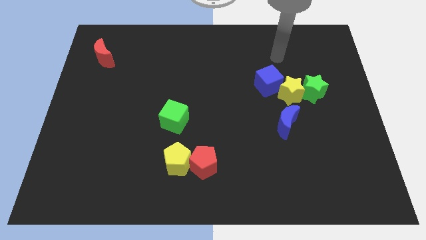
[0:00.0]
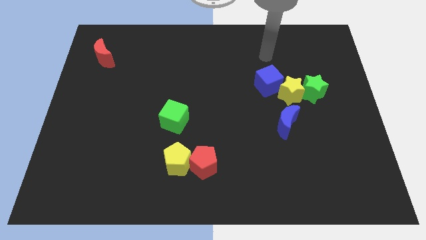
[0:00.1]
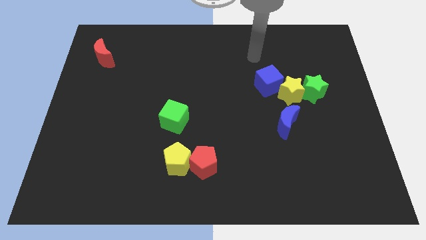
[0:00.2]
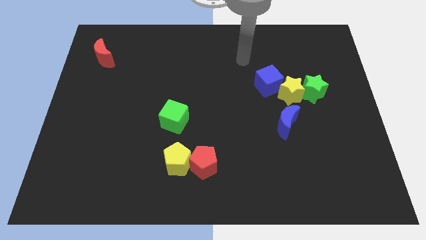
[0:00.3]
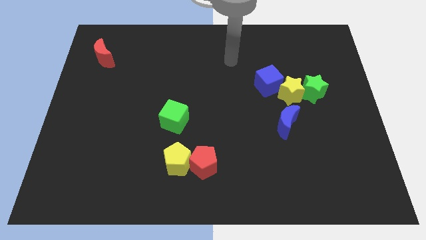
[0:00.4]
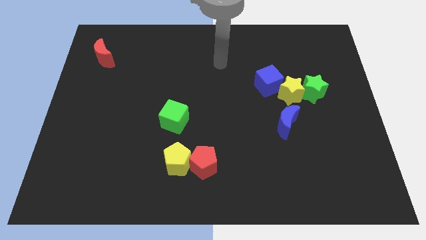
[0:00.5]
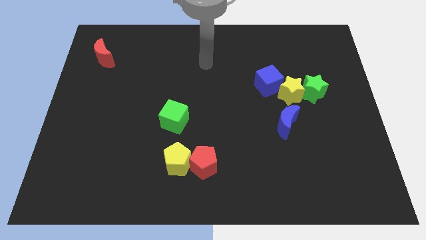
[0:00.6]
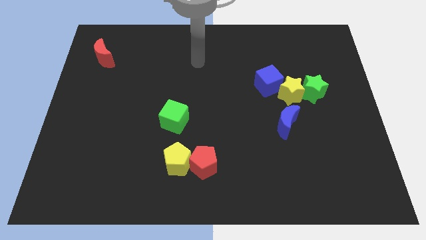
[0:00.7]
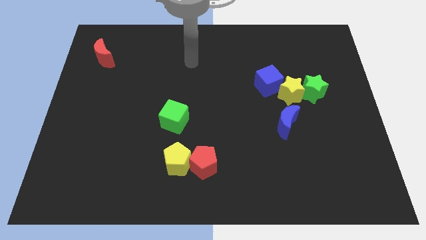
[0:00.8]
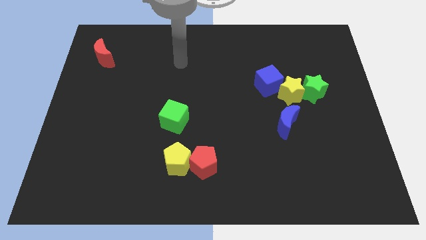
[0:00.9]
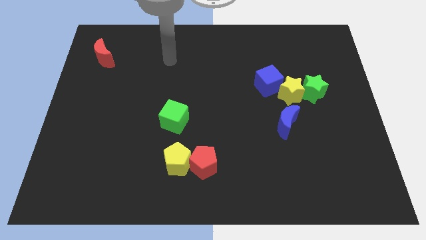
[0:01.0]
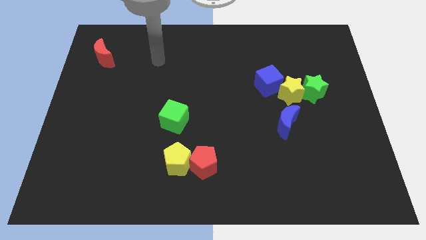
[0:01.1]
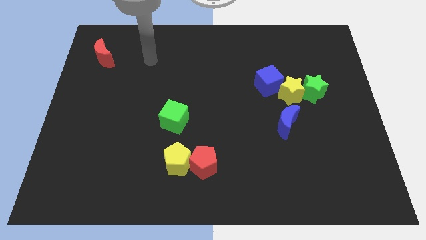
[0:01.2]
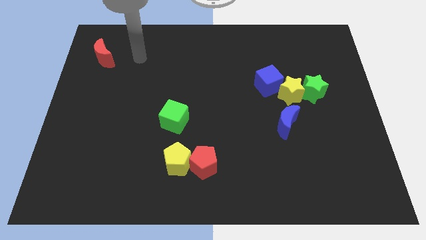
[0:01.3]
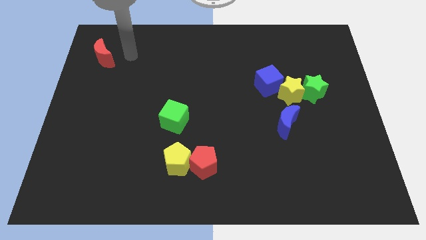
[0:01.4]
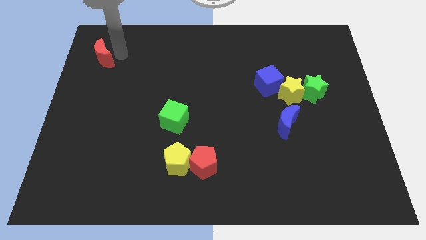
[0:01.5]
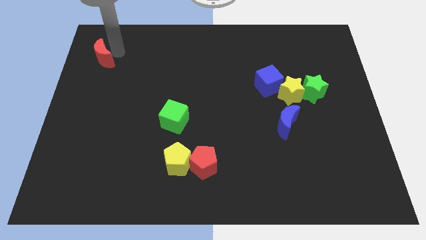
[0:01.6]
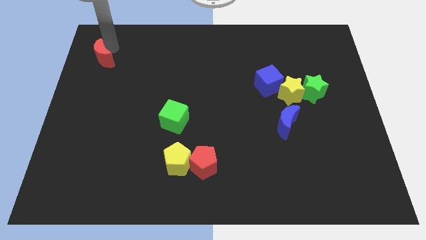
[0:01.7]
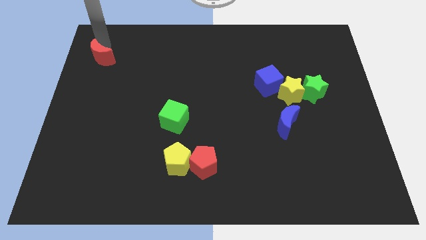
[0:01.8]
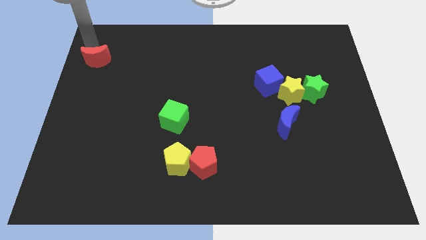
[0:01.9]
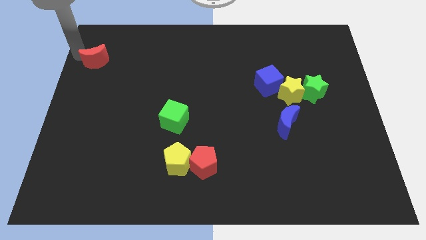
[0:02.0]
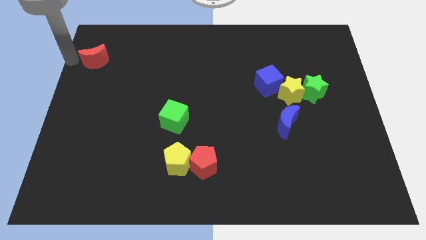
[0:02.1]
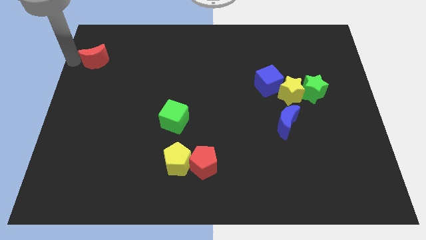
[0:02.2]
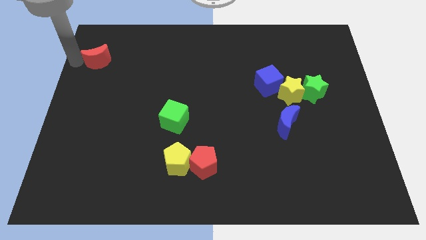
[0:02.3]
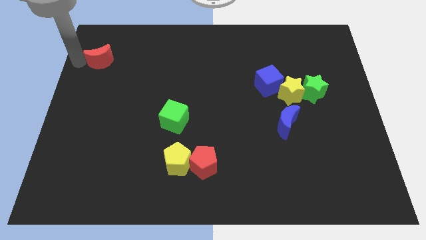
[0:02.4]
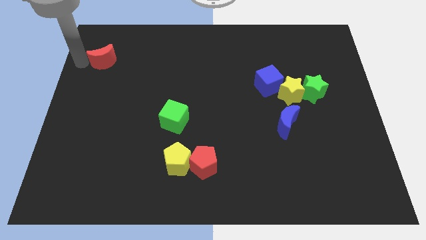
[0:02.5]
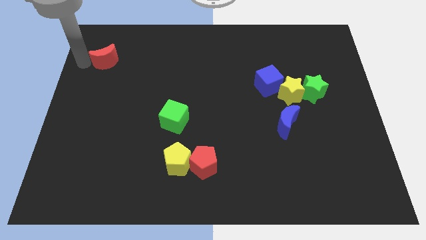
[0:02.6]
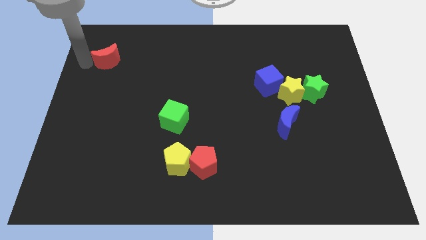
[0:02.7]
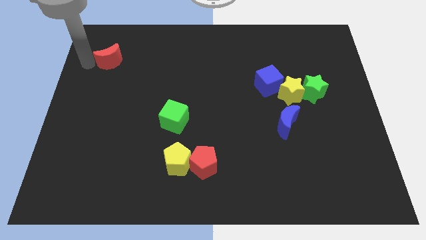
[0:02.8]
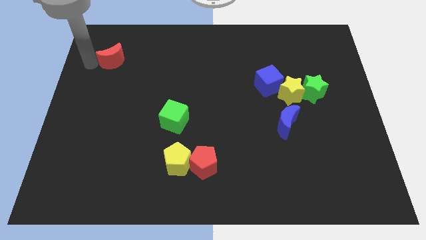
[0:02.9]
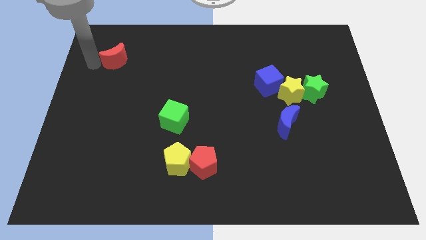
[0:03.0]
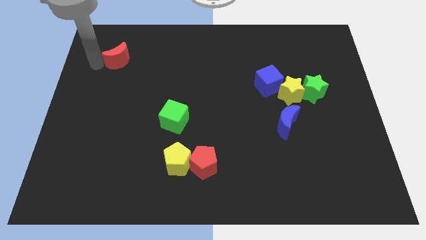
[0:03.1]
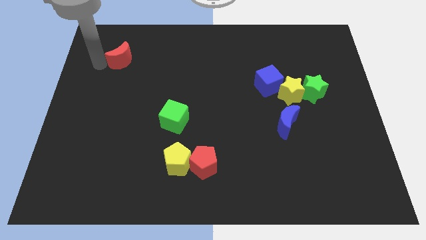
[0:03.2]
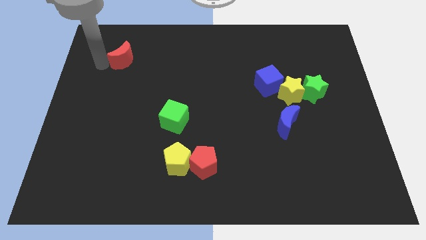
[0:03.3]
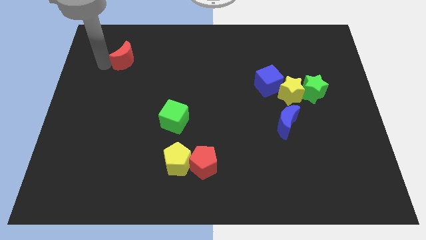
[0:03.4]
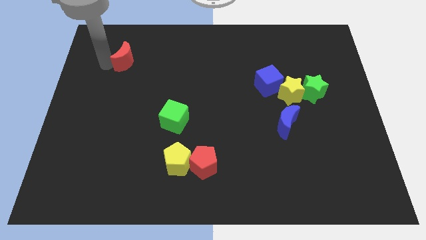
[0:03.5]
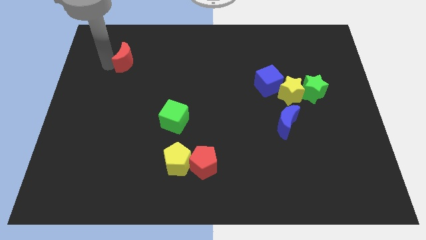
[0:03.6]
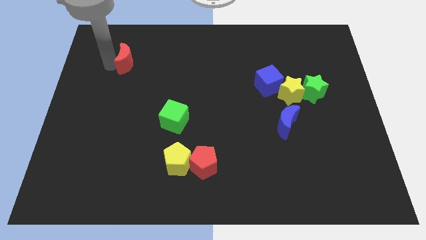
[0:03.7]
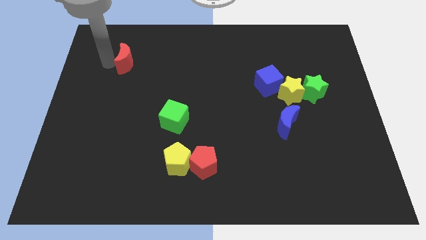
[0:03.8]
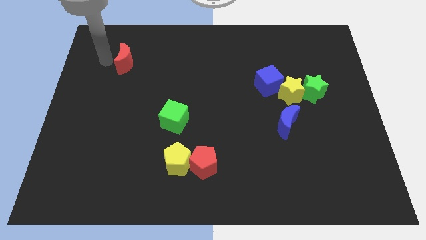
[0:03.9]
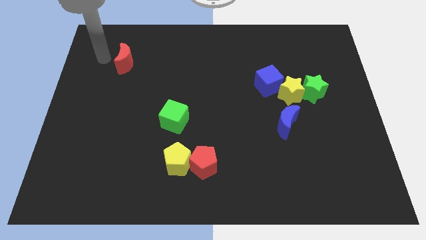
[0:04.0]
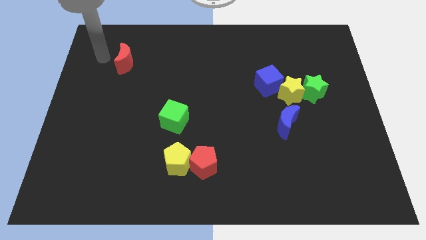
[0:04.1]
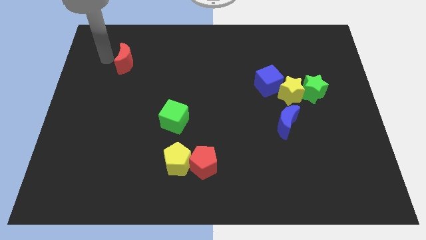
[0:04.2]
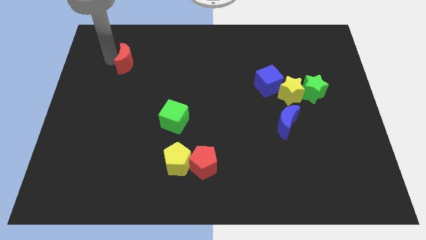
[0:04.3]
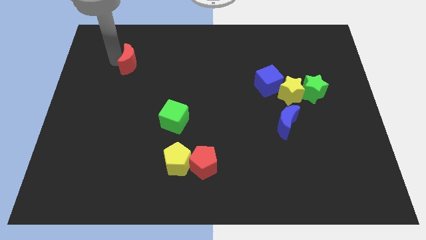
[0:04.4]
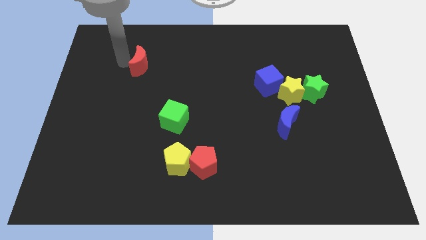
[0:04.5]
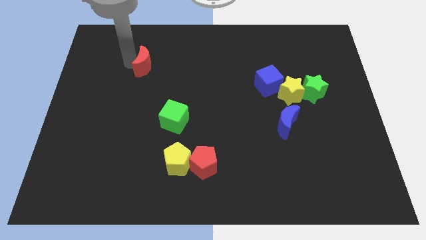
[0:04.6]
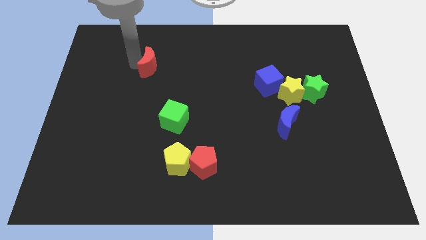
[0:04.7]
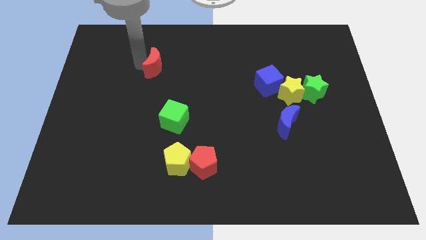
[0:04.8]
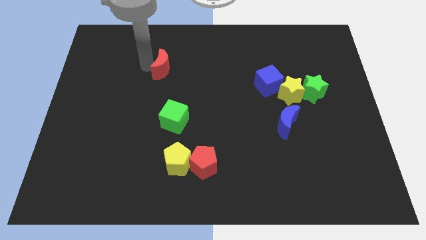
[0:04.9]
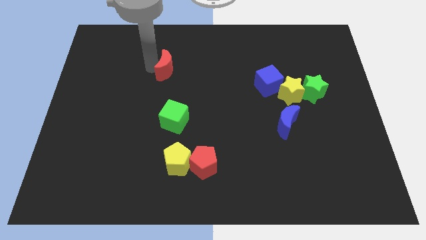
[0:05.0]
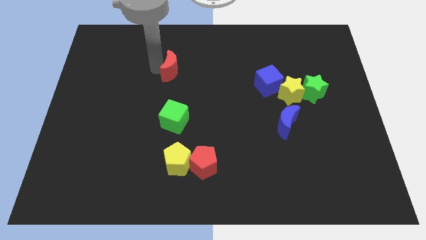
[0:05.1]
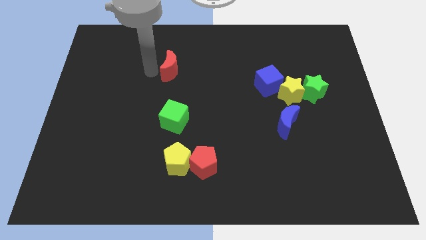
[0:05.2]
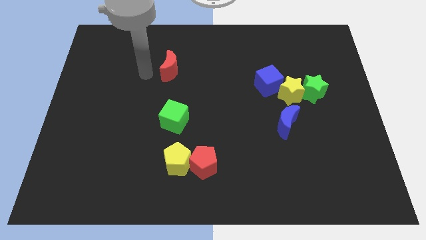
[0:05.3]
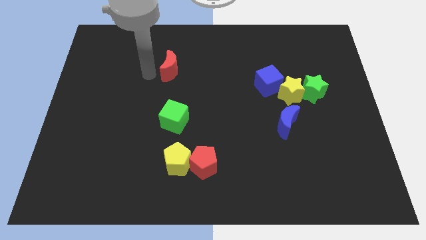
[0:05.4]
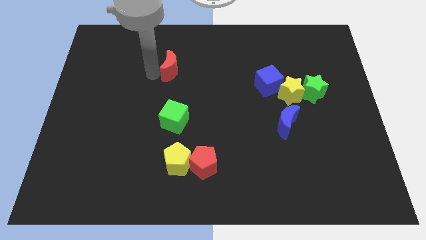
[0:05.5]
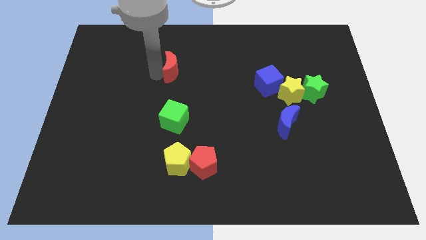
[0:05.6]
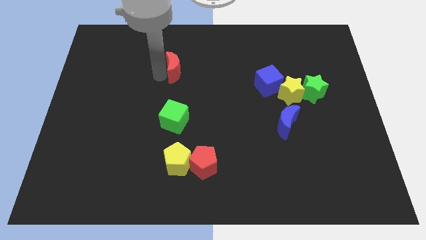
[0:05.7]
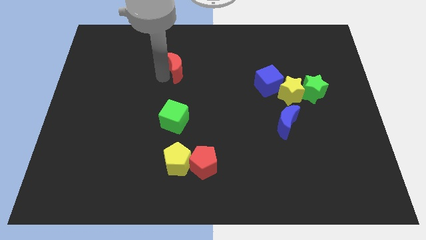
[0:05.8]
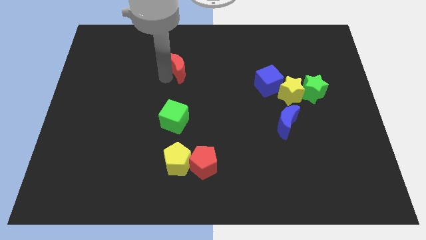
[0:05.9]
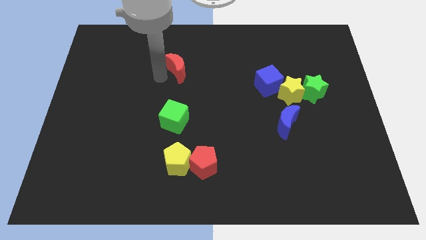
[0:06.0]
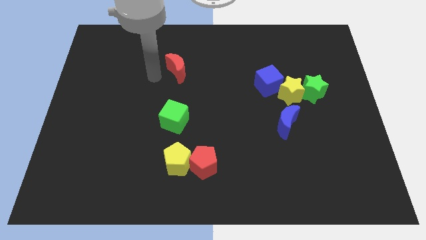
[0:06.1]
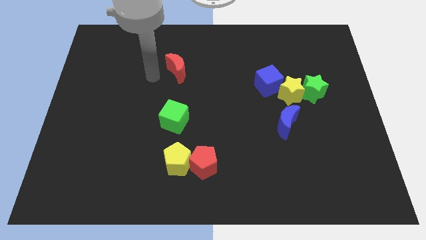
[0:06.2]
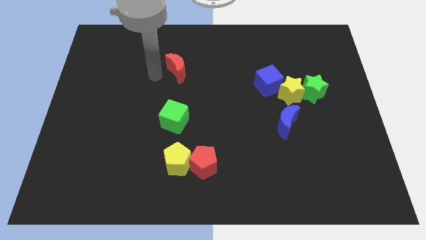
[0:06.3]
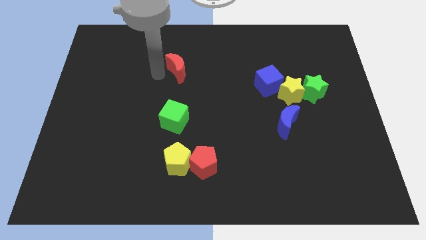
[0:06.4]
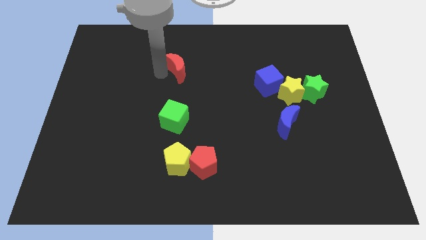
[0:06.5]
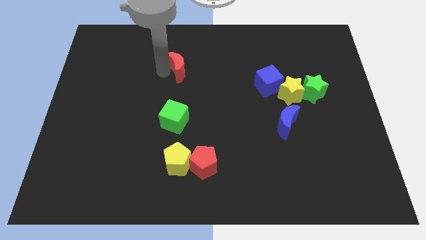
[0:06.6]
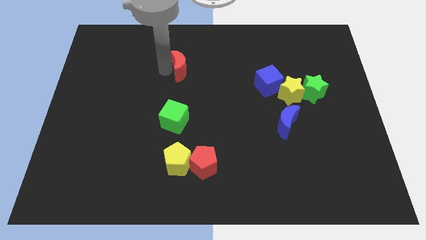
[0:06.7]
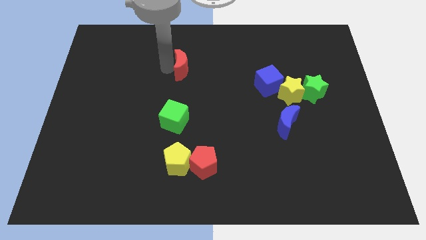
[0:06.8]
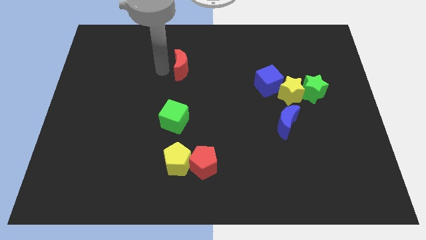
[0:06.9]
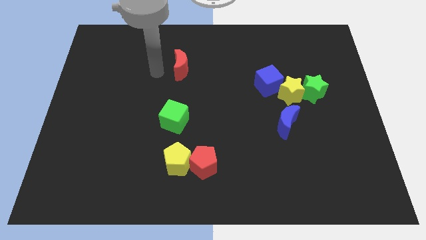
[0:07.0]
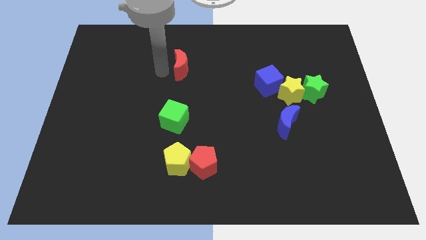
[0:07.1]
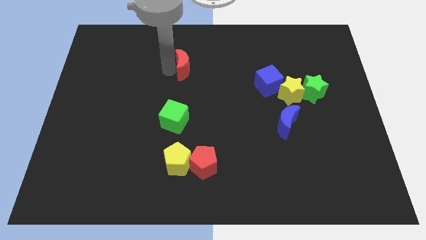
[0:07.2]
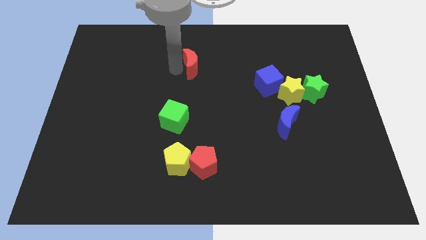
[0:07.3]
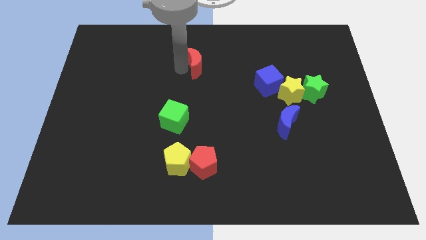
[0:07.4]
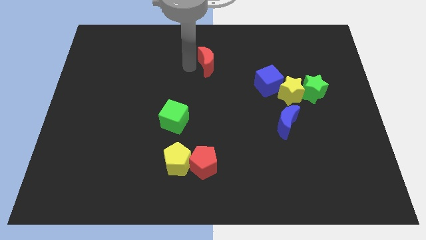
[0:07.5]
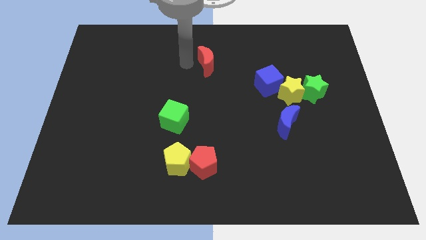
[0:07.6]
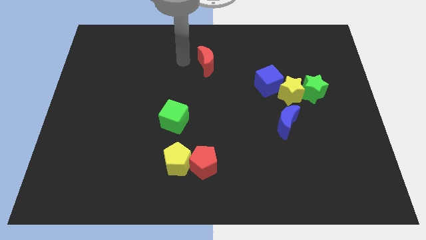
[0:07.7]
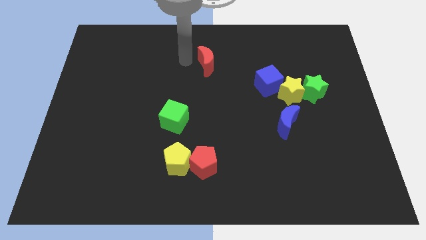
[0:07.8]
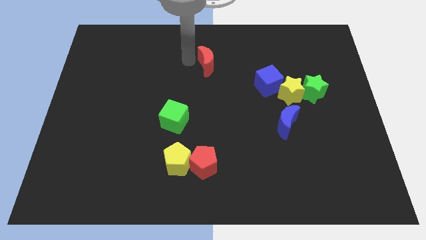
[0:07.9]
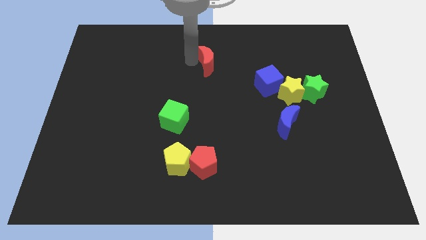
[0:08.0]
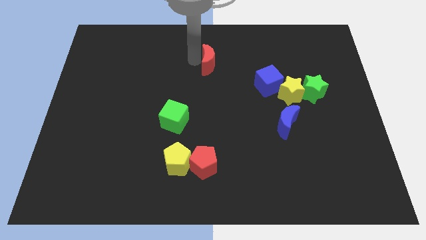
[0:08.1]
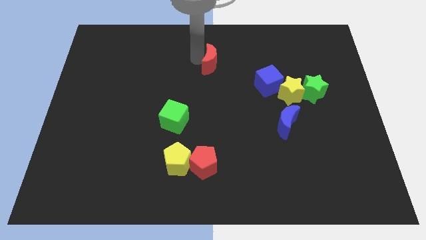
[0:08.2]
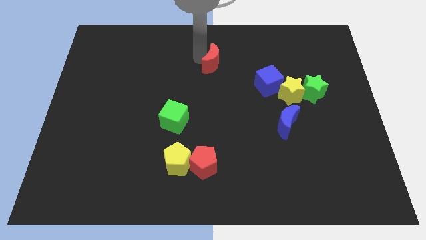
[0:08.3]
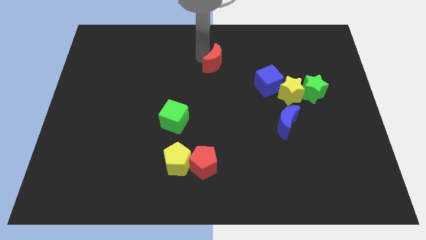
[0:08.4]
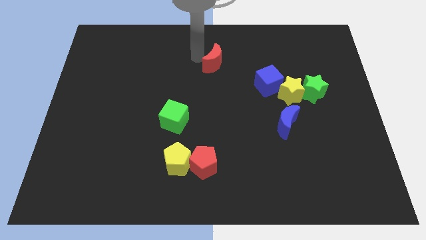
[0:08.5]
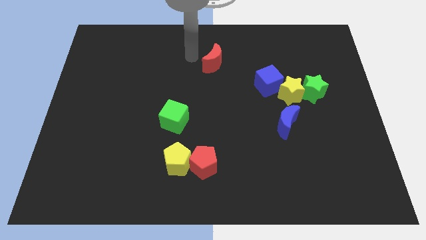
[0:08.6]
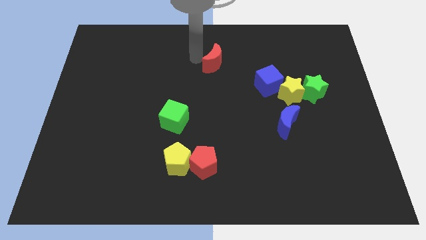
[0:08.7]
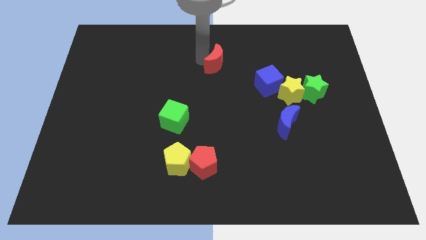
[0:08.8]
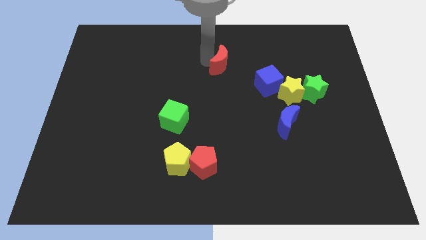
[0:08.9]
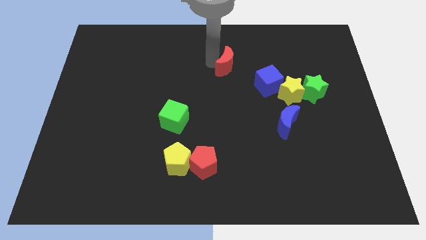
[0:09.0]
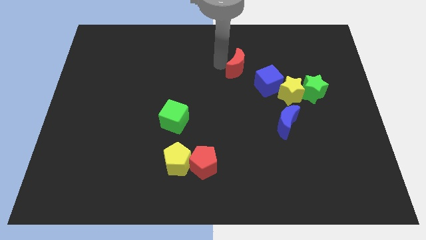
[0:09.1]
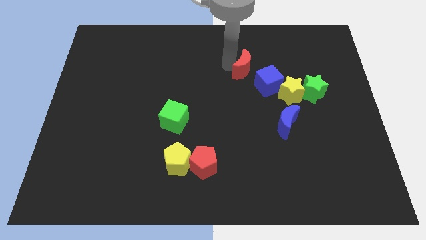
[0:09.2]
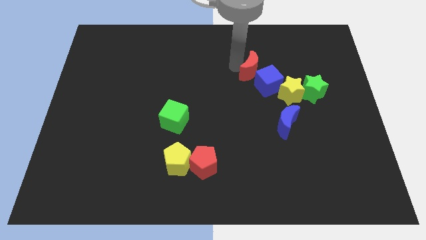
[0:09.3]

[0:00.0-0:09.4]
push the red moon to the top left of the yellow star
